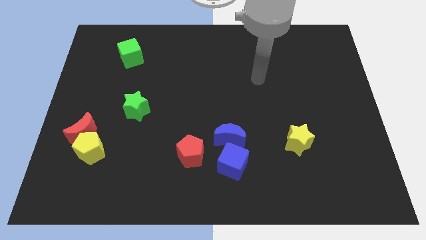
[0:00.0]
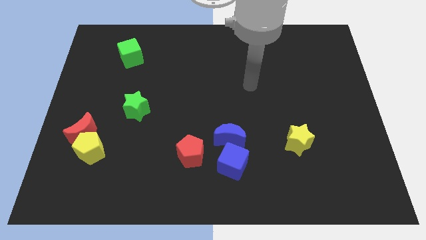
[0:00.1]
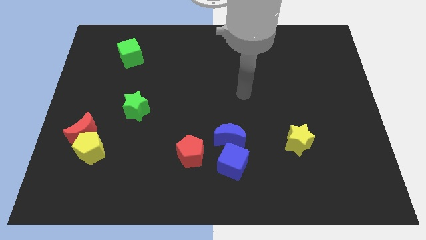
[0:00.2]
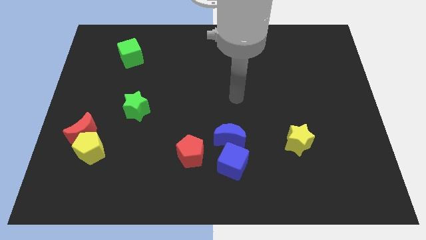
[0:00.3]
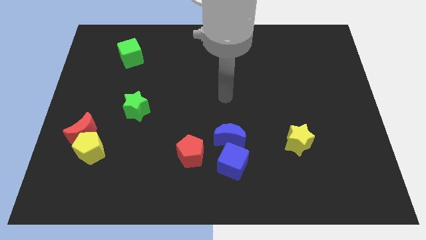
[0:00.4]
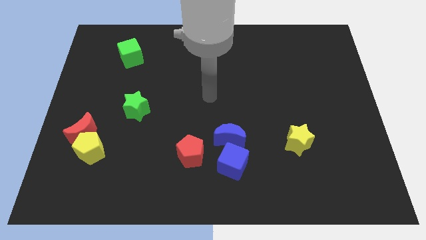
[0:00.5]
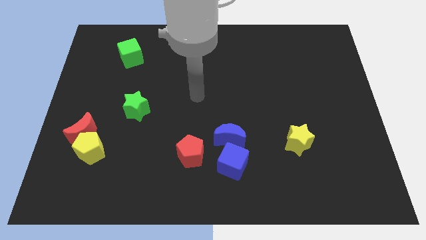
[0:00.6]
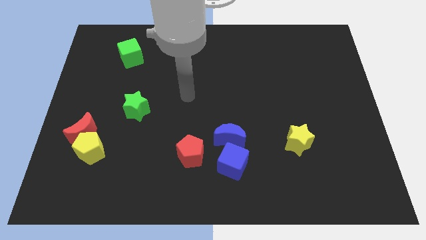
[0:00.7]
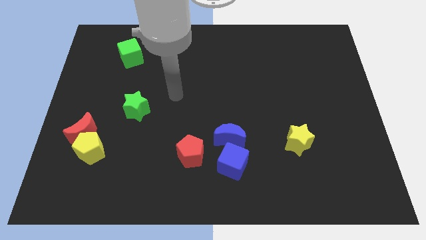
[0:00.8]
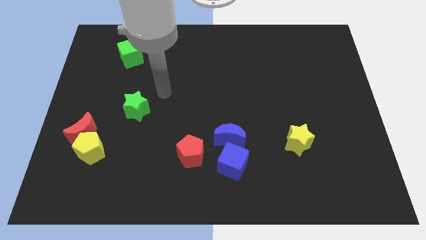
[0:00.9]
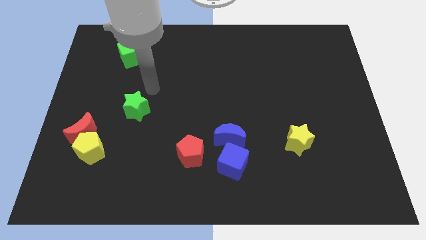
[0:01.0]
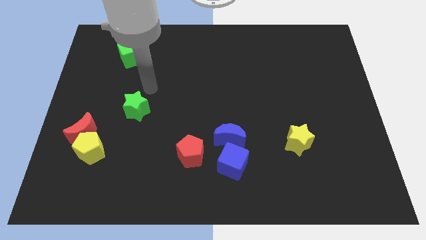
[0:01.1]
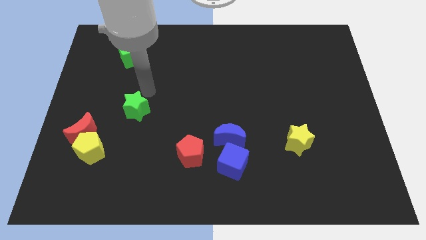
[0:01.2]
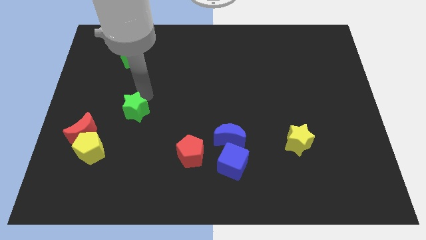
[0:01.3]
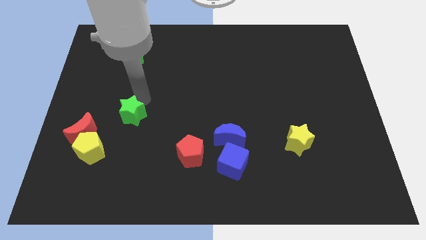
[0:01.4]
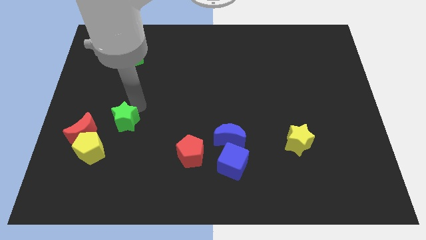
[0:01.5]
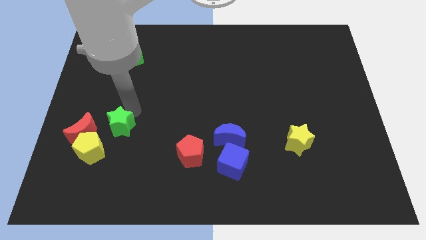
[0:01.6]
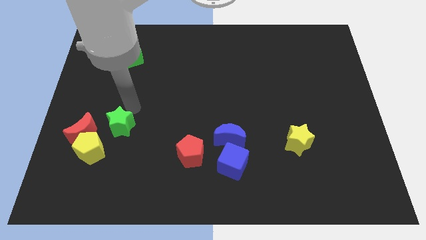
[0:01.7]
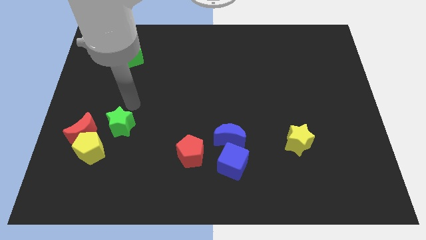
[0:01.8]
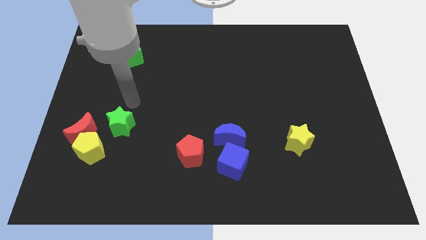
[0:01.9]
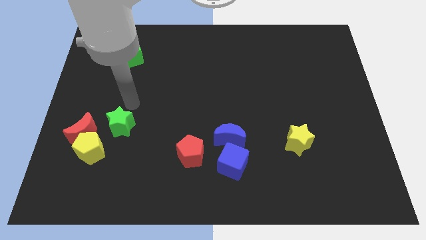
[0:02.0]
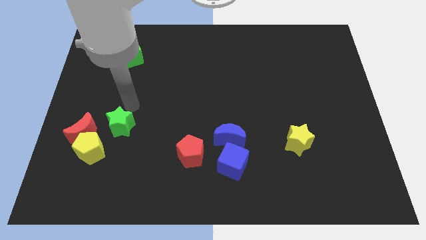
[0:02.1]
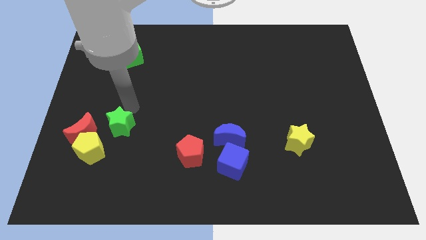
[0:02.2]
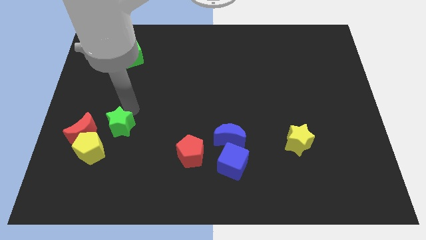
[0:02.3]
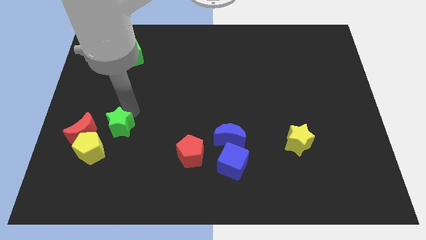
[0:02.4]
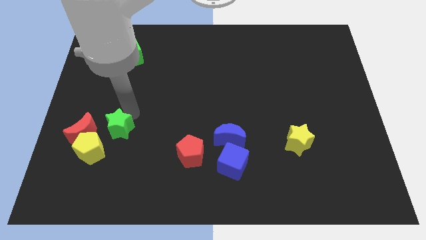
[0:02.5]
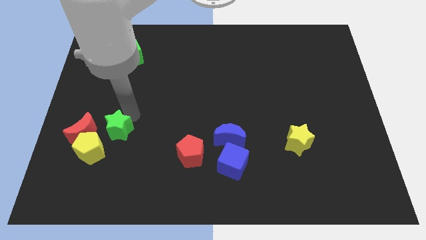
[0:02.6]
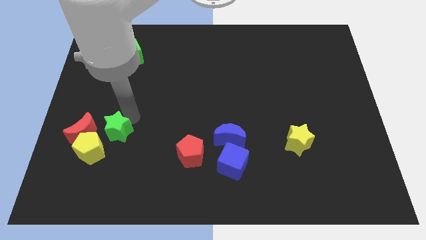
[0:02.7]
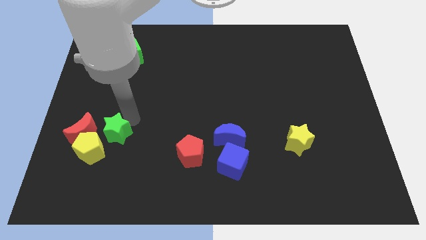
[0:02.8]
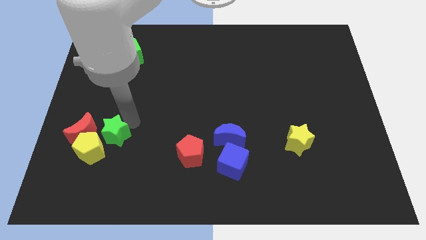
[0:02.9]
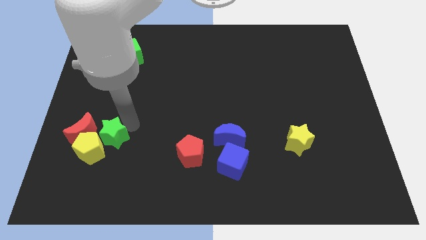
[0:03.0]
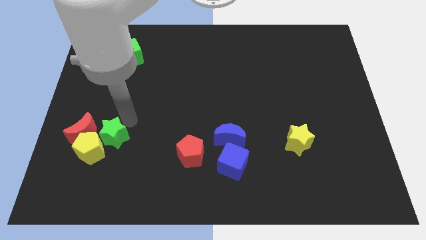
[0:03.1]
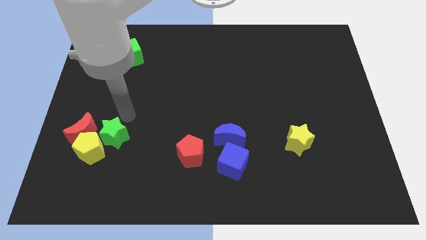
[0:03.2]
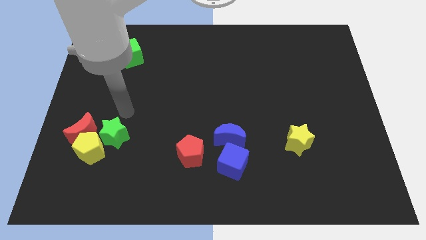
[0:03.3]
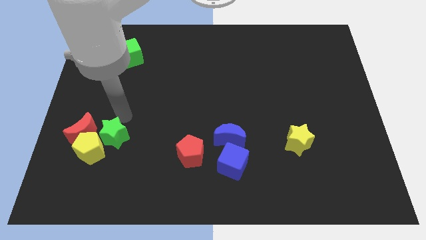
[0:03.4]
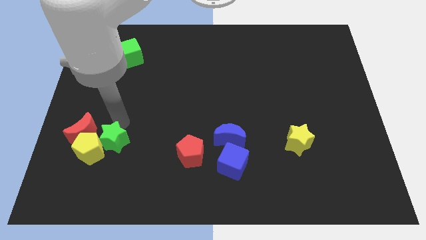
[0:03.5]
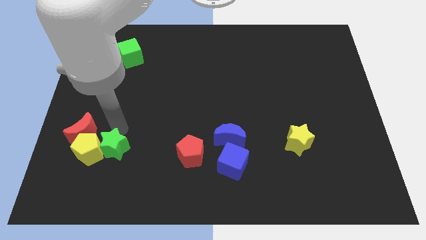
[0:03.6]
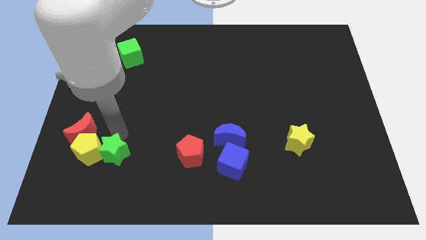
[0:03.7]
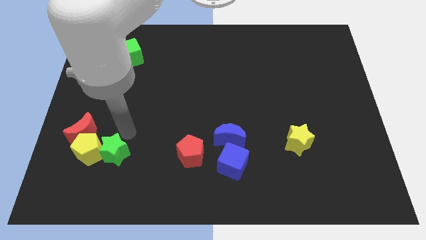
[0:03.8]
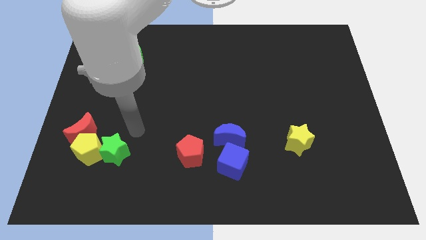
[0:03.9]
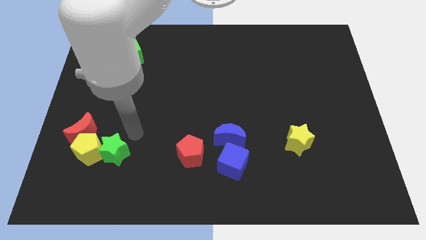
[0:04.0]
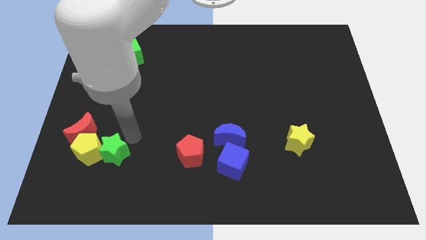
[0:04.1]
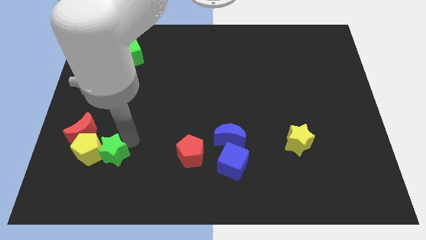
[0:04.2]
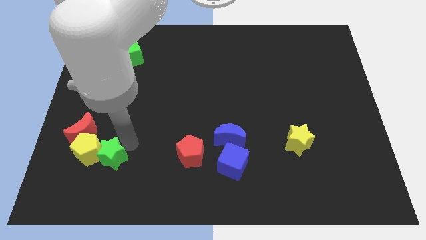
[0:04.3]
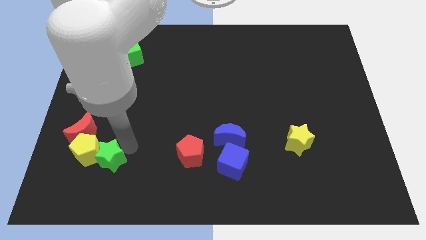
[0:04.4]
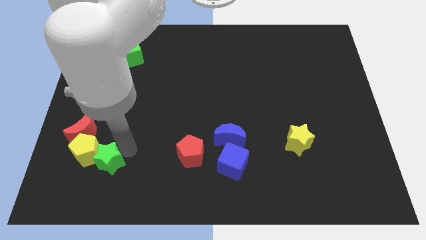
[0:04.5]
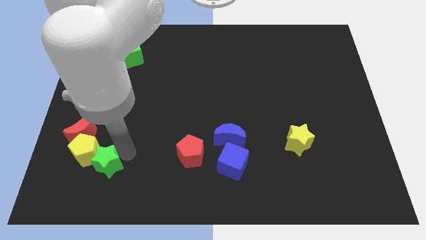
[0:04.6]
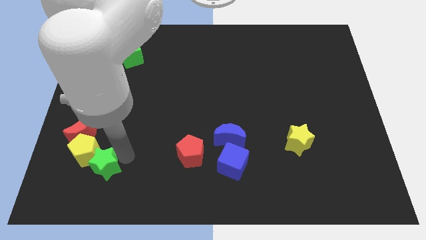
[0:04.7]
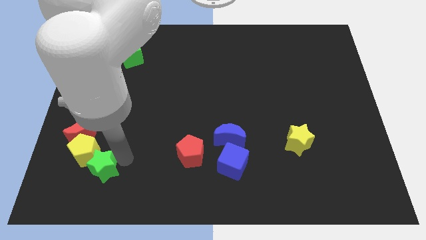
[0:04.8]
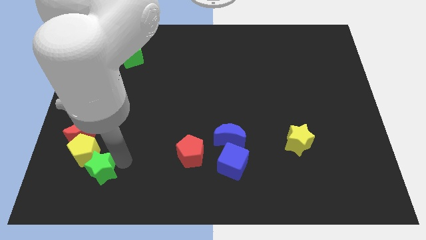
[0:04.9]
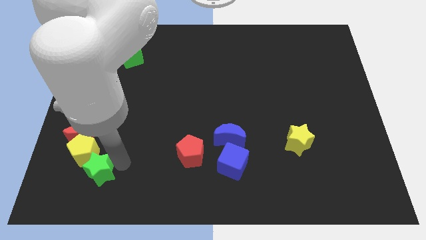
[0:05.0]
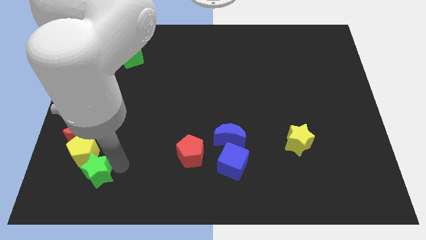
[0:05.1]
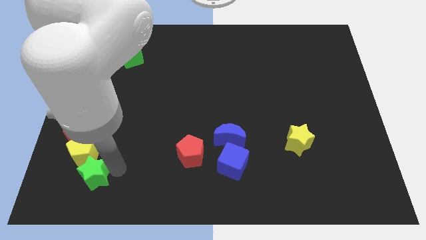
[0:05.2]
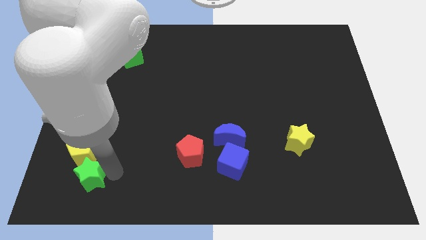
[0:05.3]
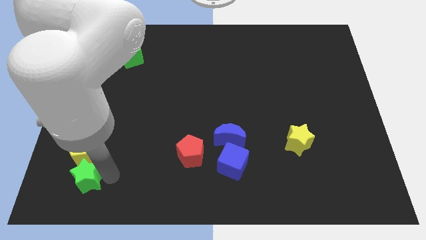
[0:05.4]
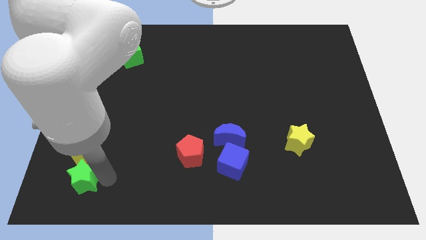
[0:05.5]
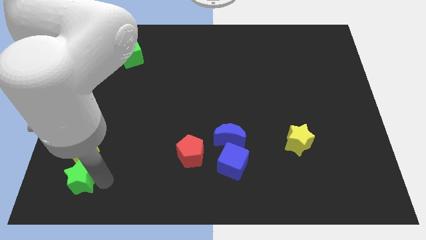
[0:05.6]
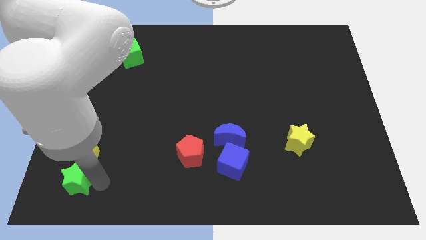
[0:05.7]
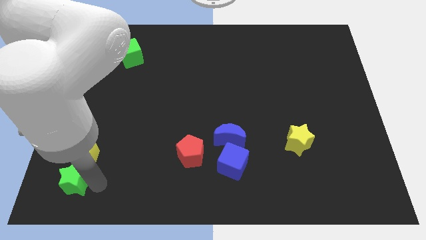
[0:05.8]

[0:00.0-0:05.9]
push the green star to the bottom left

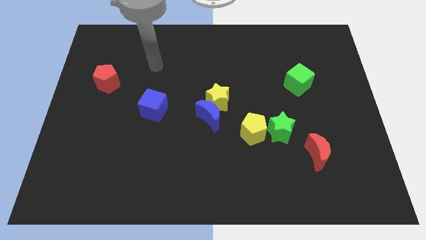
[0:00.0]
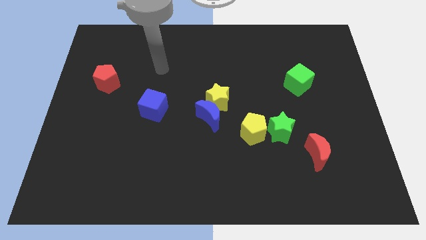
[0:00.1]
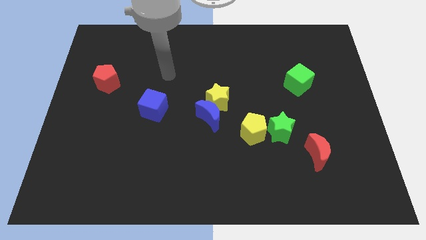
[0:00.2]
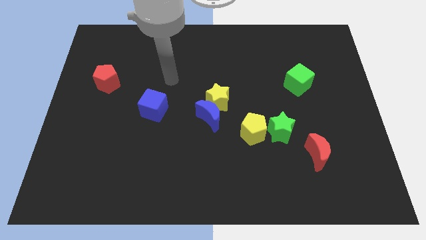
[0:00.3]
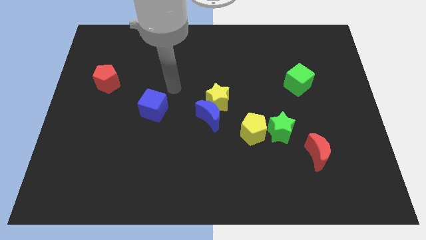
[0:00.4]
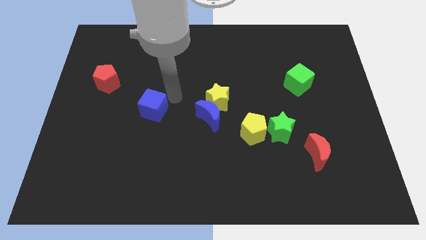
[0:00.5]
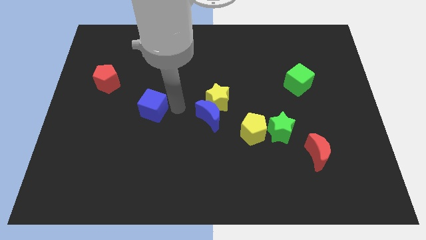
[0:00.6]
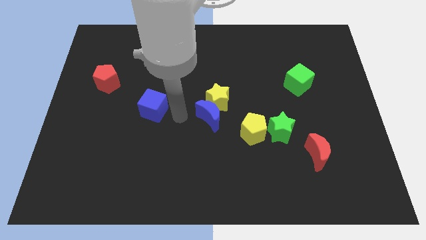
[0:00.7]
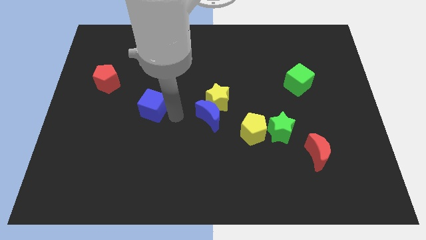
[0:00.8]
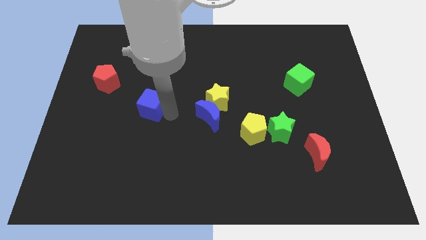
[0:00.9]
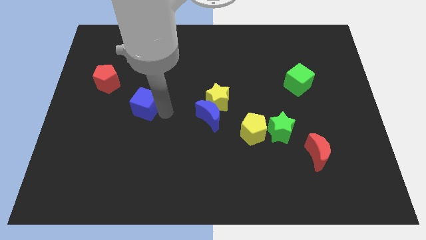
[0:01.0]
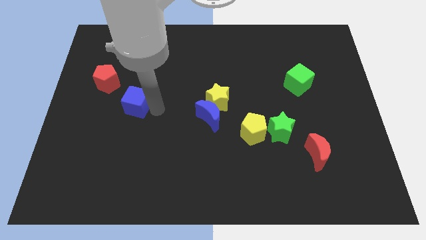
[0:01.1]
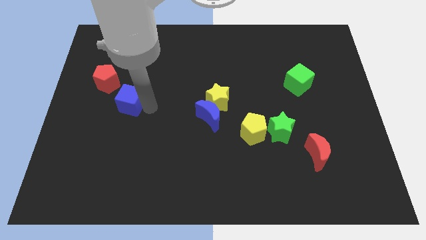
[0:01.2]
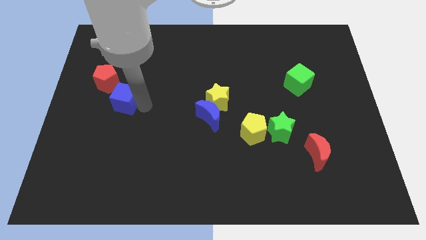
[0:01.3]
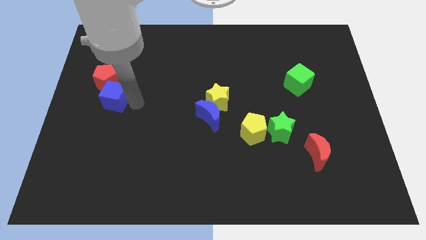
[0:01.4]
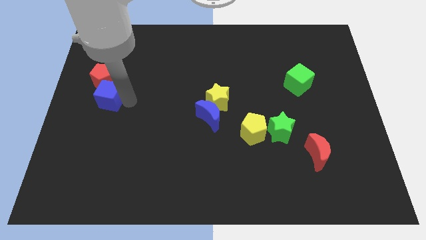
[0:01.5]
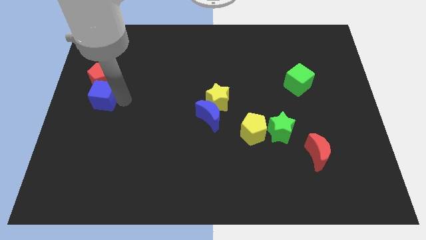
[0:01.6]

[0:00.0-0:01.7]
push the blue cube to the center left

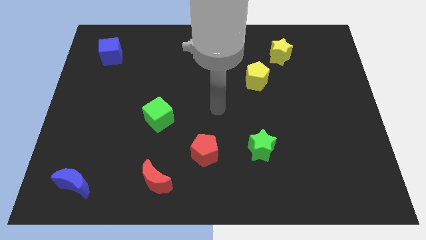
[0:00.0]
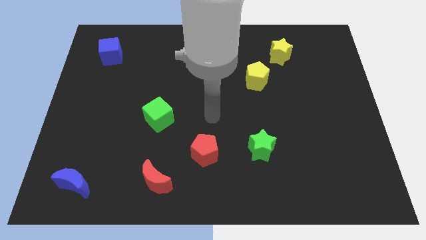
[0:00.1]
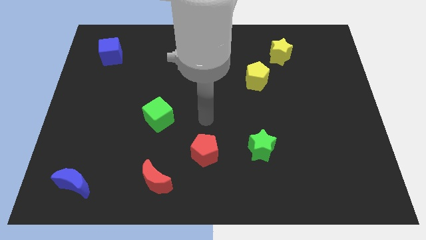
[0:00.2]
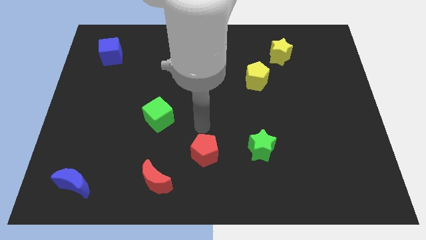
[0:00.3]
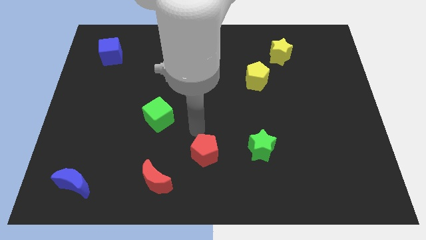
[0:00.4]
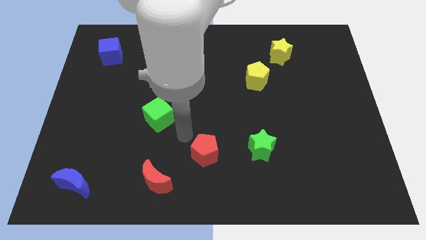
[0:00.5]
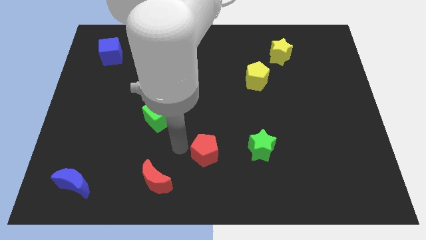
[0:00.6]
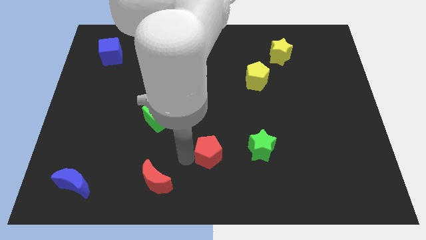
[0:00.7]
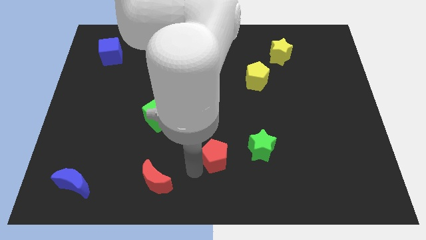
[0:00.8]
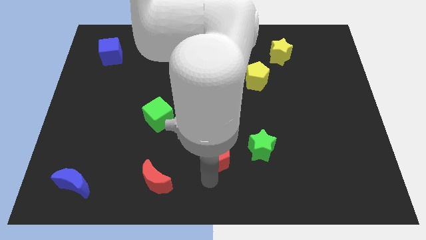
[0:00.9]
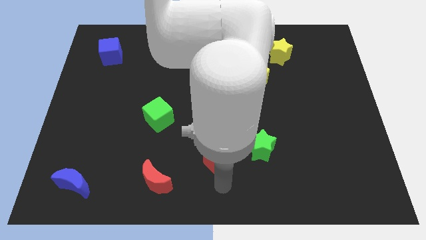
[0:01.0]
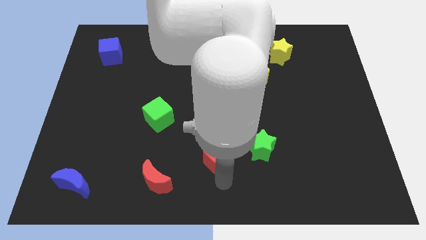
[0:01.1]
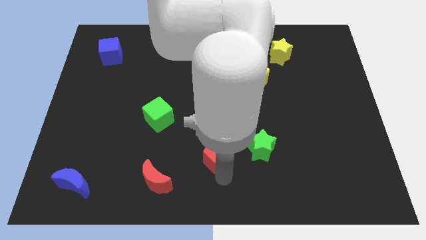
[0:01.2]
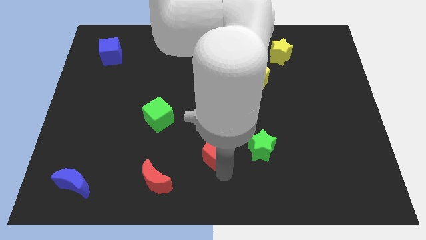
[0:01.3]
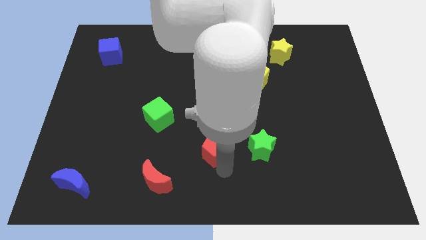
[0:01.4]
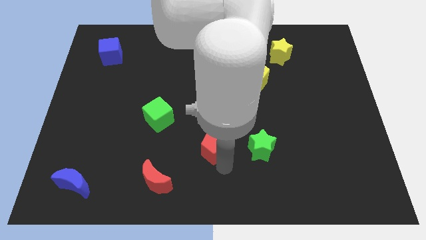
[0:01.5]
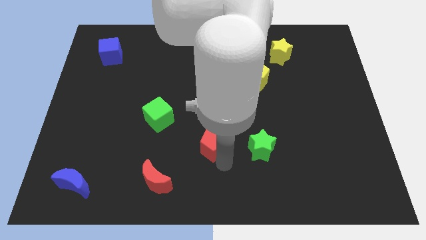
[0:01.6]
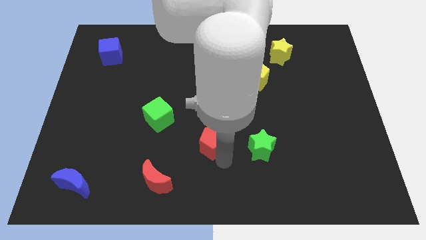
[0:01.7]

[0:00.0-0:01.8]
slide the red pentagon to the center
